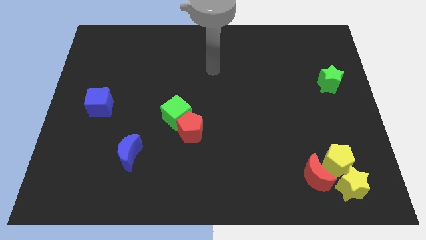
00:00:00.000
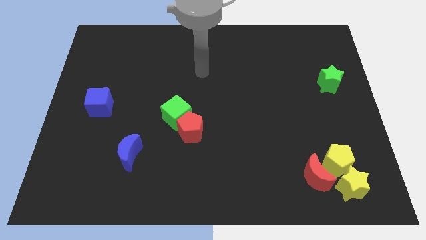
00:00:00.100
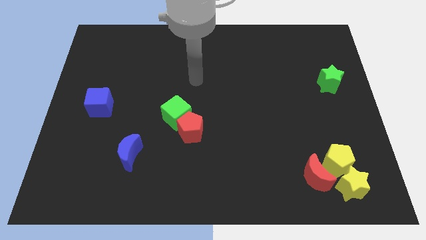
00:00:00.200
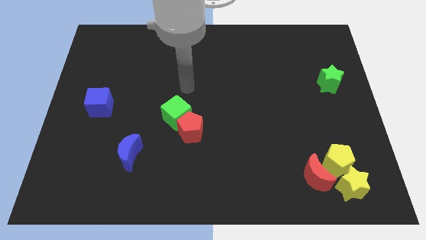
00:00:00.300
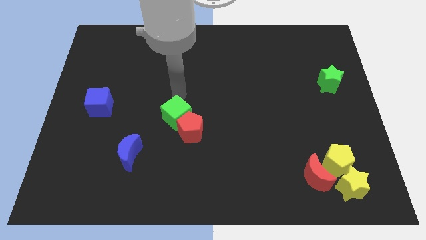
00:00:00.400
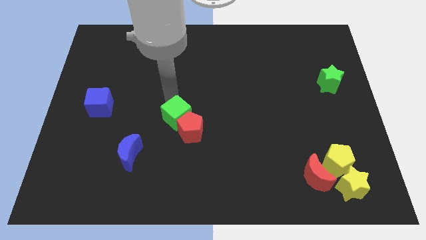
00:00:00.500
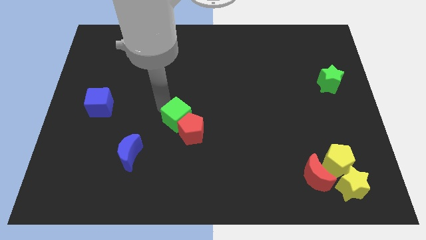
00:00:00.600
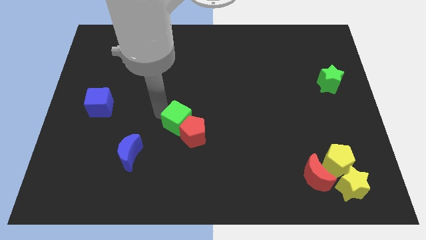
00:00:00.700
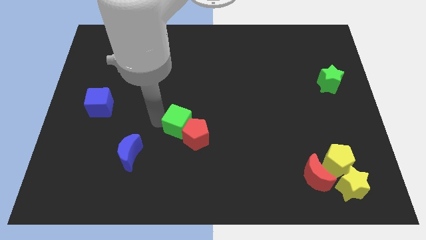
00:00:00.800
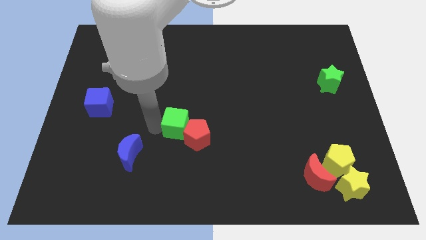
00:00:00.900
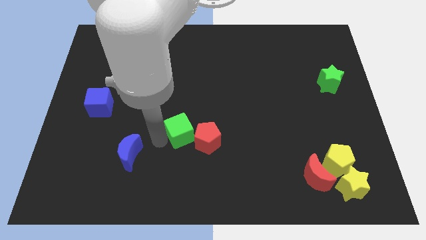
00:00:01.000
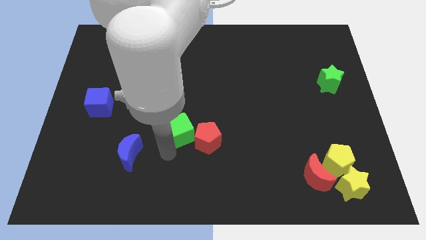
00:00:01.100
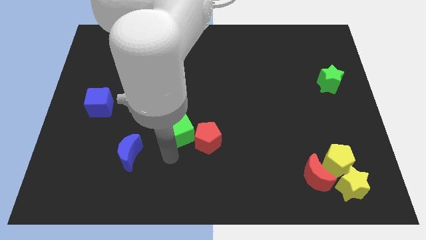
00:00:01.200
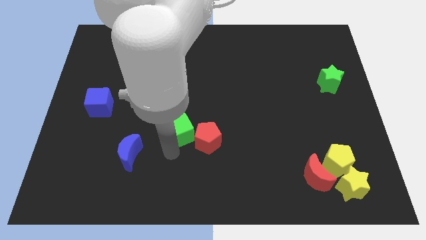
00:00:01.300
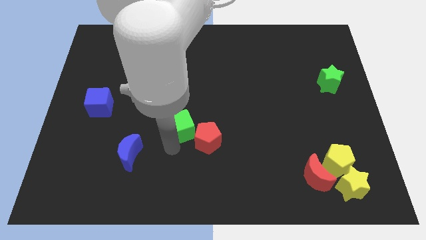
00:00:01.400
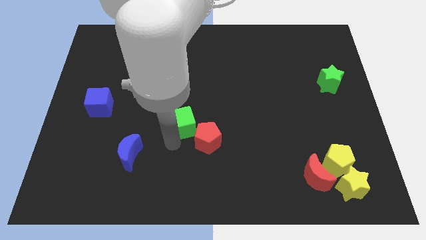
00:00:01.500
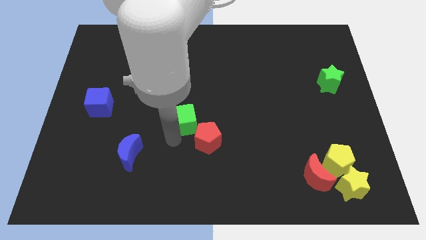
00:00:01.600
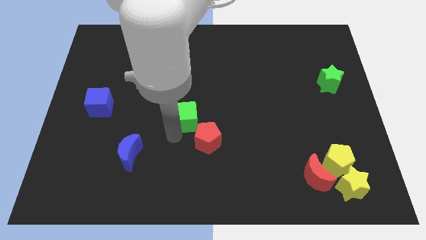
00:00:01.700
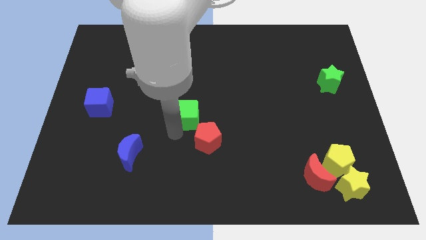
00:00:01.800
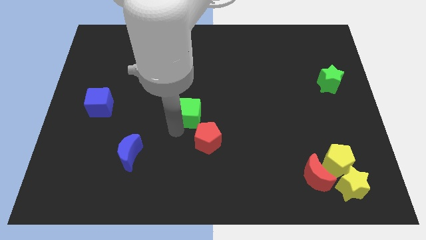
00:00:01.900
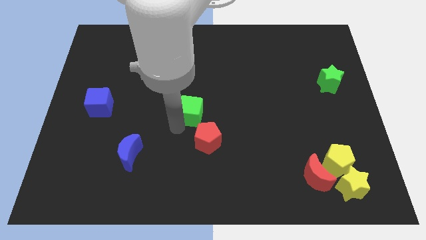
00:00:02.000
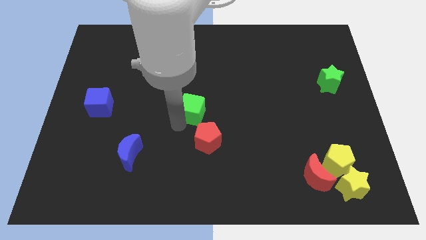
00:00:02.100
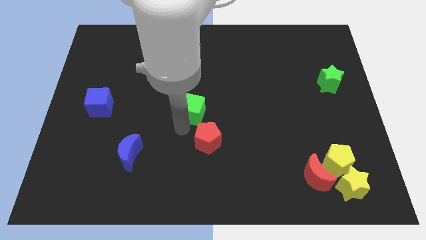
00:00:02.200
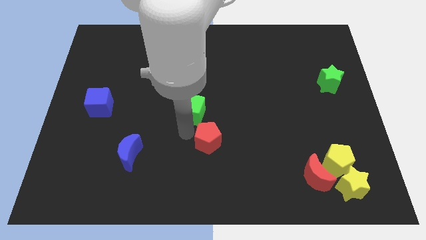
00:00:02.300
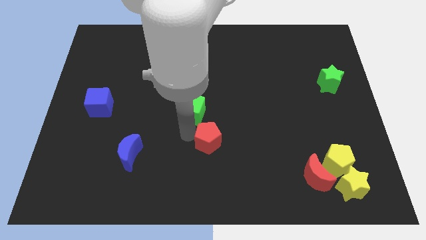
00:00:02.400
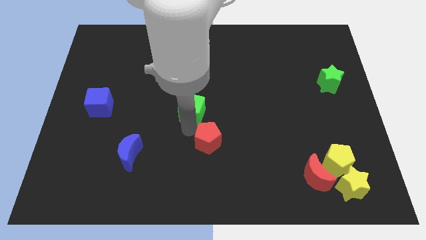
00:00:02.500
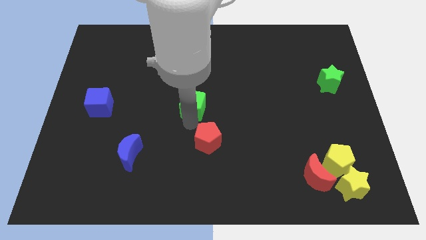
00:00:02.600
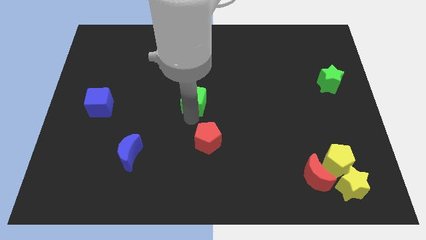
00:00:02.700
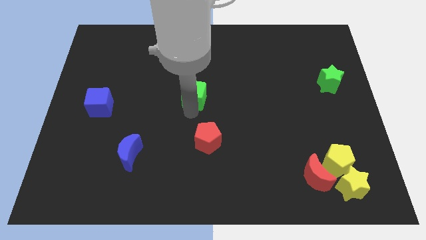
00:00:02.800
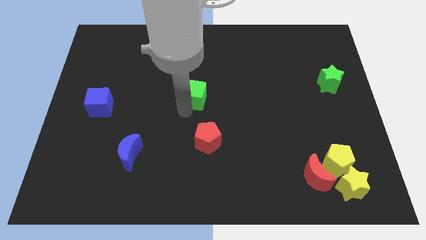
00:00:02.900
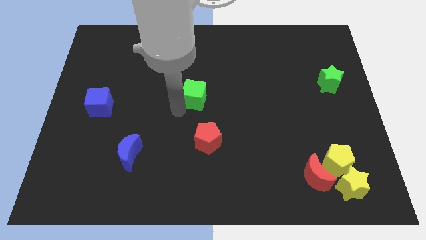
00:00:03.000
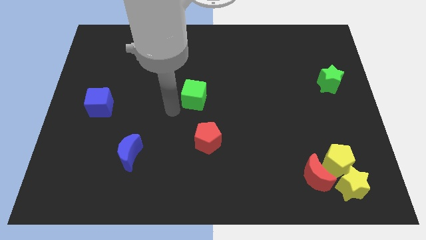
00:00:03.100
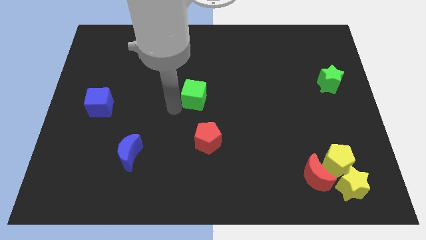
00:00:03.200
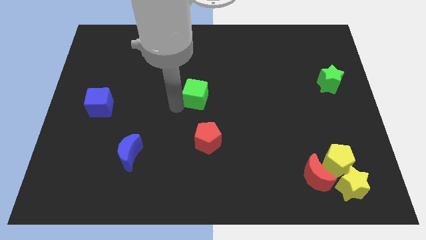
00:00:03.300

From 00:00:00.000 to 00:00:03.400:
slide the green cube up and then to the right a little bit

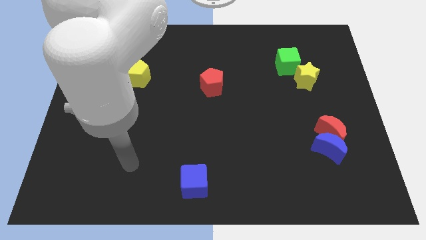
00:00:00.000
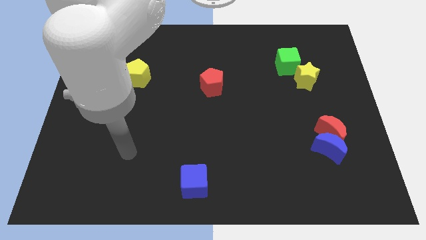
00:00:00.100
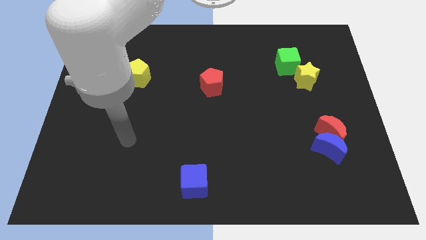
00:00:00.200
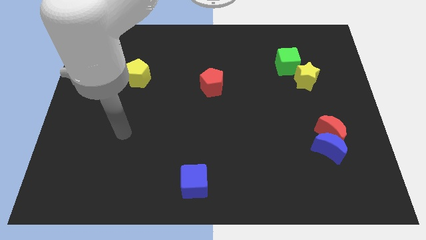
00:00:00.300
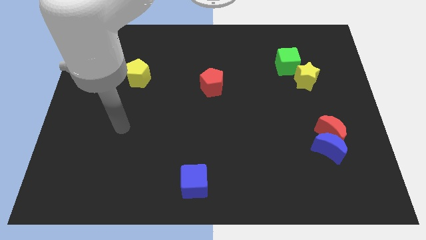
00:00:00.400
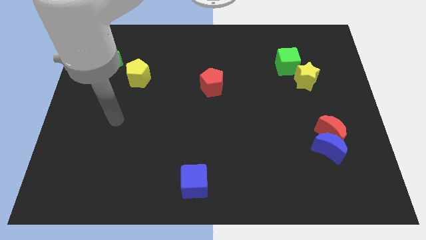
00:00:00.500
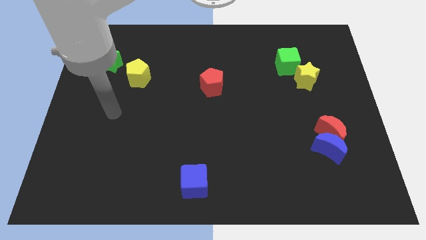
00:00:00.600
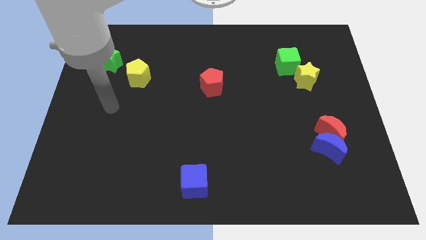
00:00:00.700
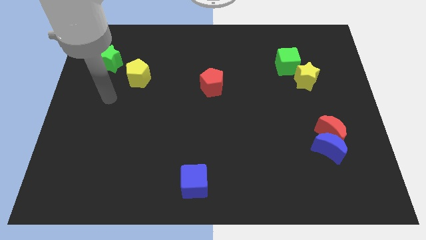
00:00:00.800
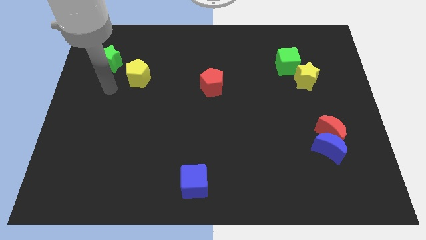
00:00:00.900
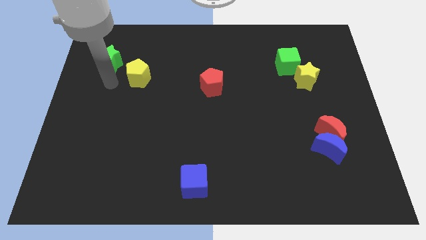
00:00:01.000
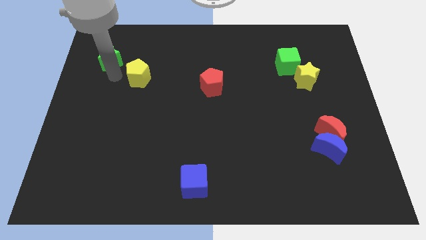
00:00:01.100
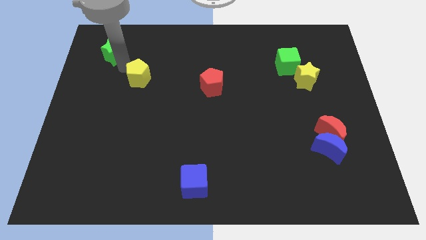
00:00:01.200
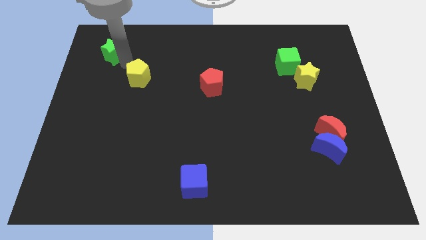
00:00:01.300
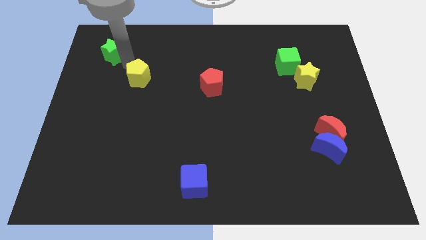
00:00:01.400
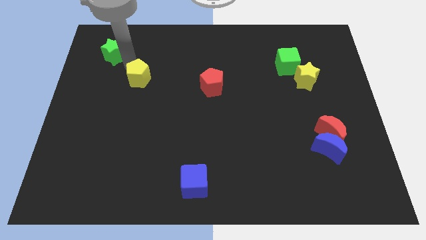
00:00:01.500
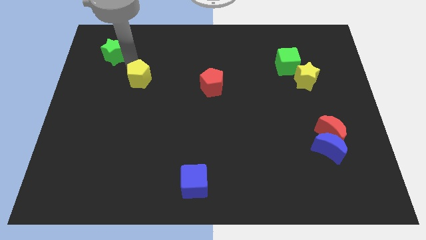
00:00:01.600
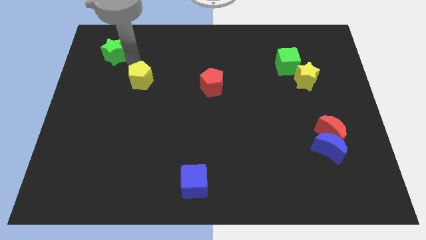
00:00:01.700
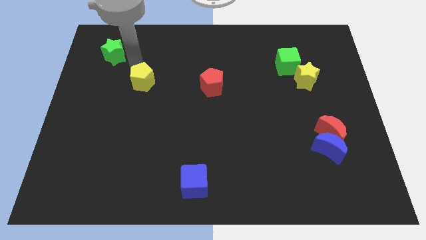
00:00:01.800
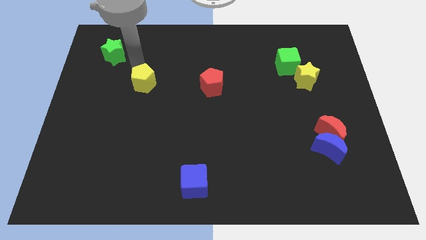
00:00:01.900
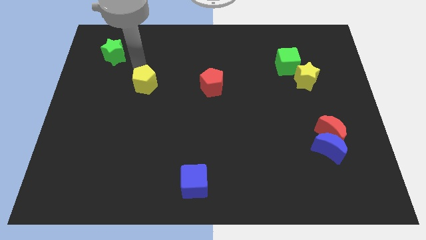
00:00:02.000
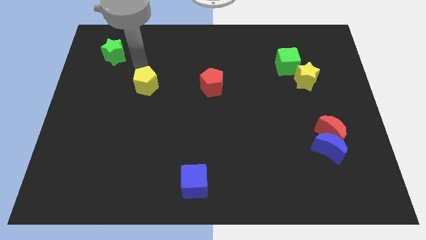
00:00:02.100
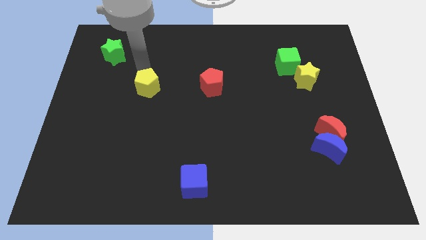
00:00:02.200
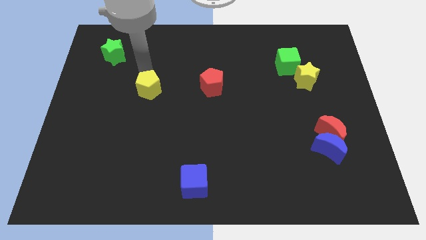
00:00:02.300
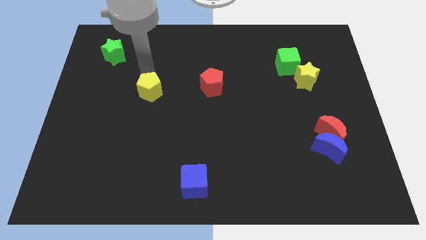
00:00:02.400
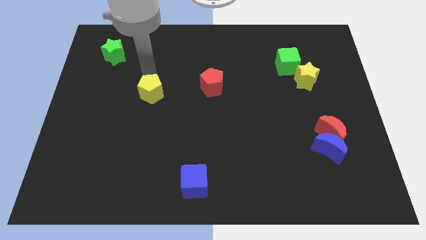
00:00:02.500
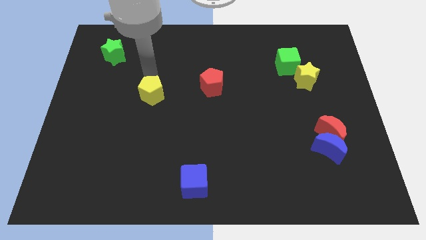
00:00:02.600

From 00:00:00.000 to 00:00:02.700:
slightly move the yellow pentagon diagonally downwards and to the right

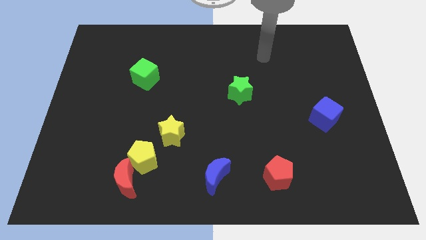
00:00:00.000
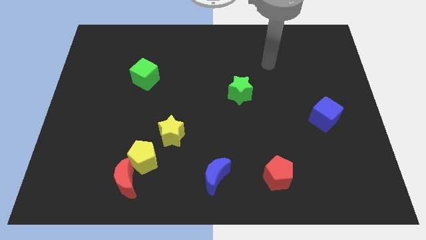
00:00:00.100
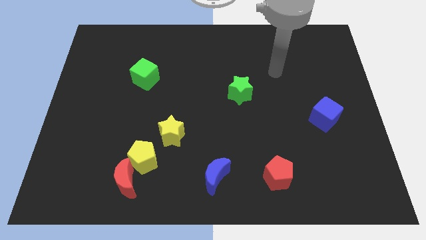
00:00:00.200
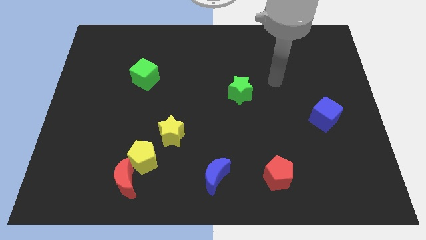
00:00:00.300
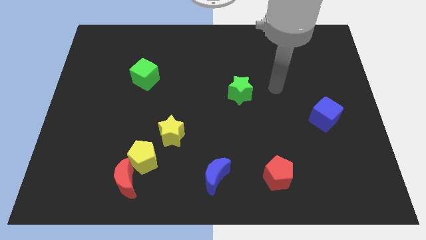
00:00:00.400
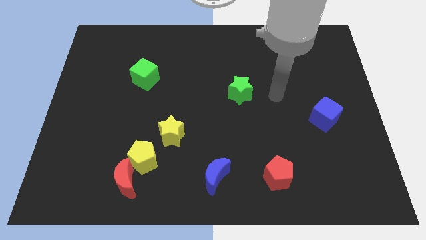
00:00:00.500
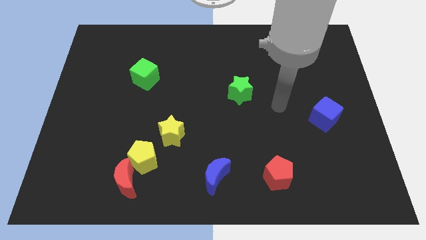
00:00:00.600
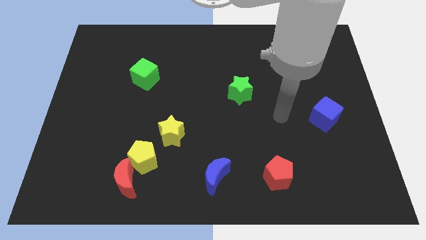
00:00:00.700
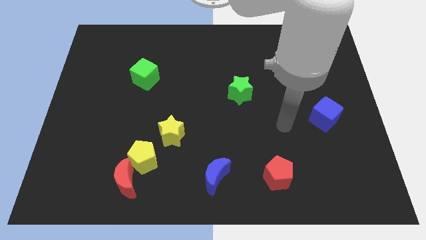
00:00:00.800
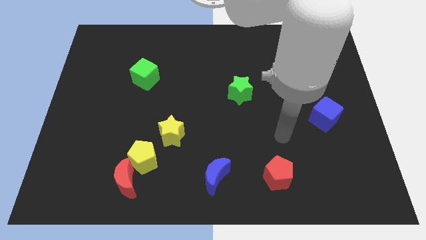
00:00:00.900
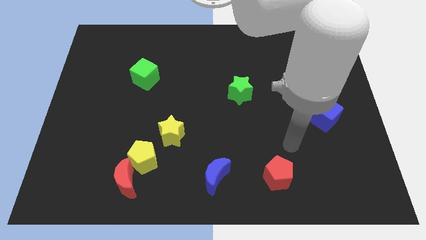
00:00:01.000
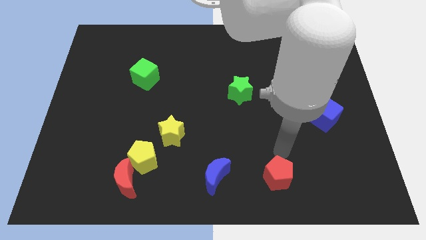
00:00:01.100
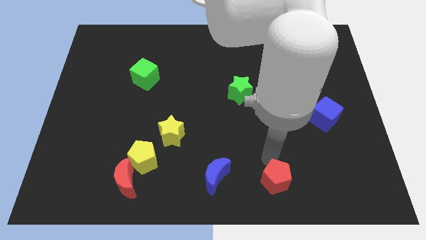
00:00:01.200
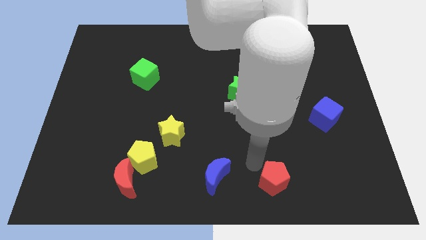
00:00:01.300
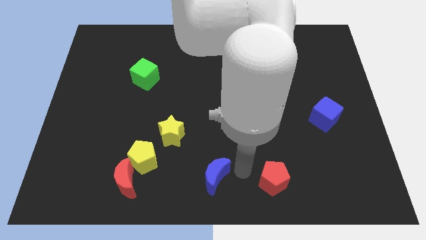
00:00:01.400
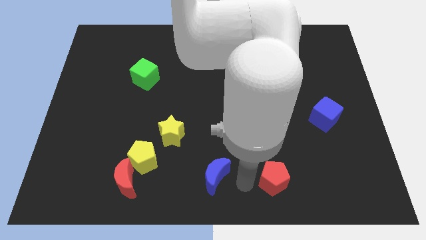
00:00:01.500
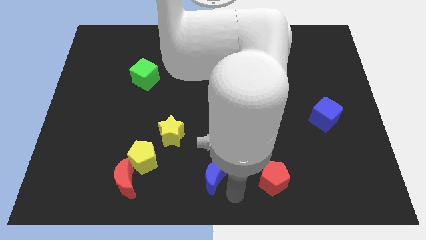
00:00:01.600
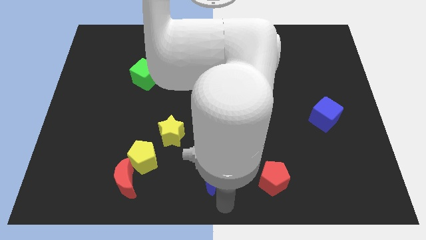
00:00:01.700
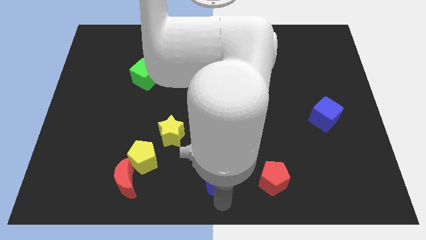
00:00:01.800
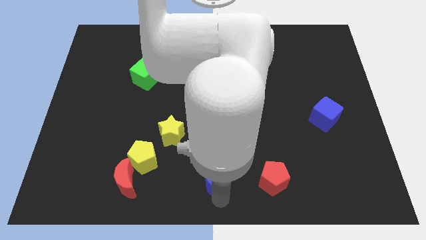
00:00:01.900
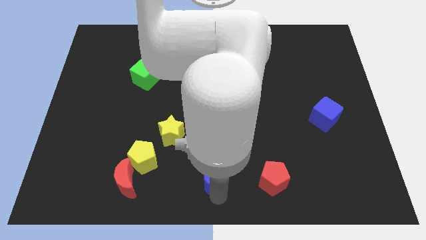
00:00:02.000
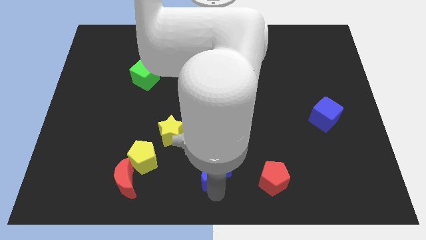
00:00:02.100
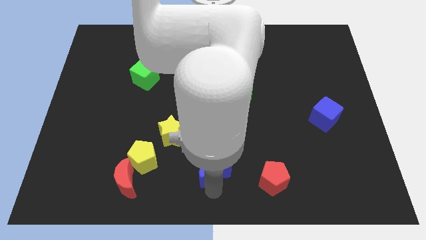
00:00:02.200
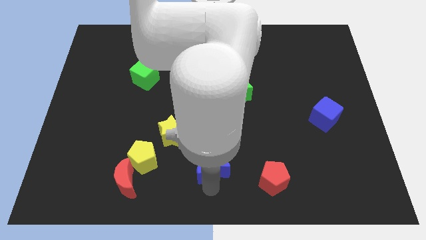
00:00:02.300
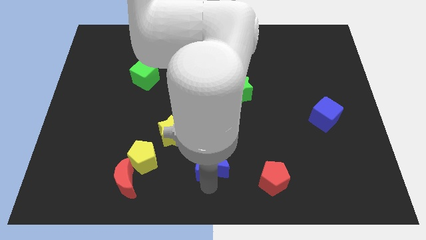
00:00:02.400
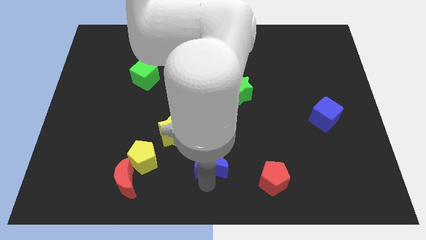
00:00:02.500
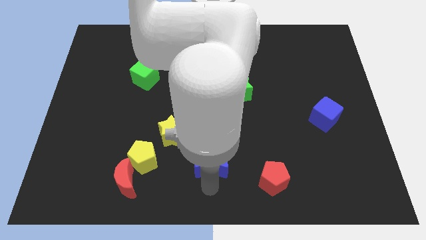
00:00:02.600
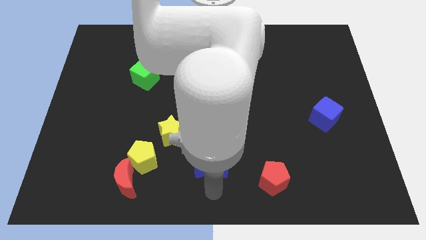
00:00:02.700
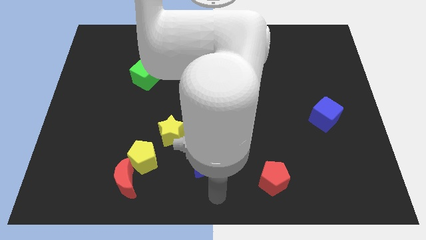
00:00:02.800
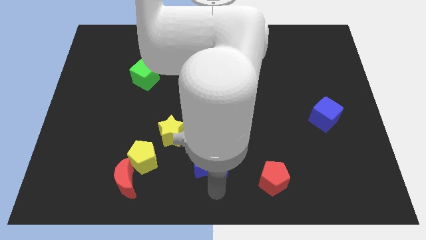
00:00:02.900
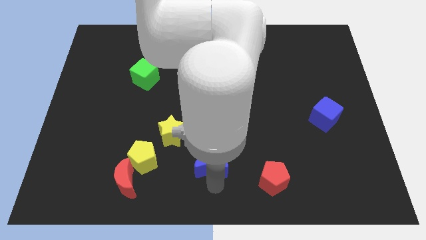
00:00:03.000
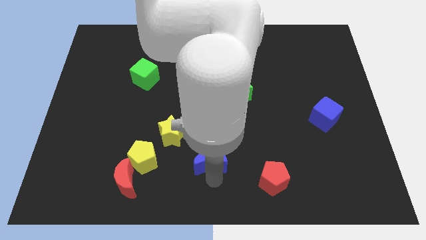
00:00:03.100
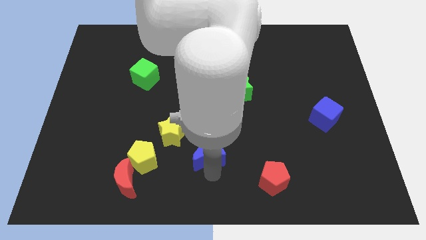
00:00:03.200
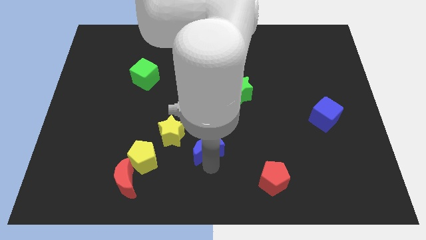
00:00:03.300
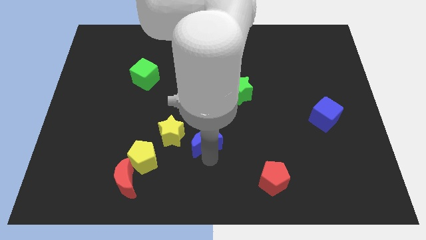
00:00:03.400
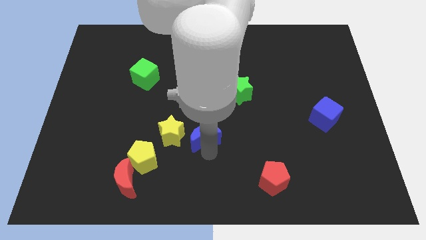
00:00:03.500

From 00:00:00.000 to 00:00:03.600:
slightly move the blue moon up and to the left diagonally
